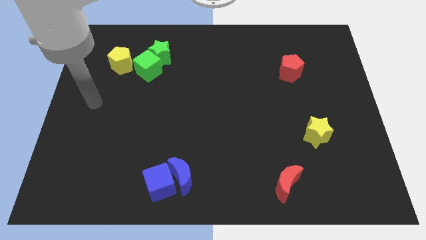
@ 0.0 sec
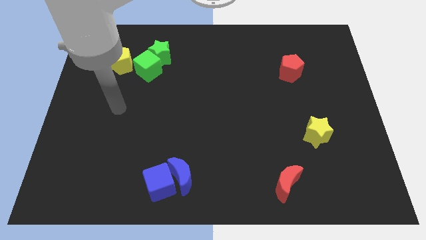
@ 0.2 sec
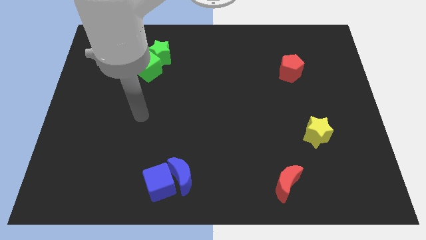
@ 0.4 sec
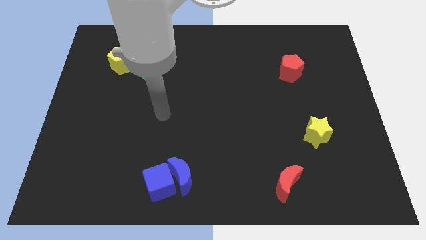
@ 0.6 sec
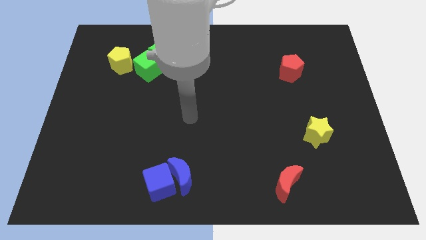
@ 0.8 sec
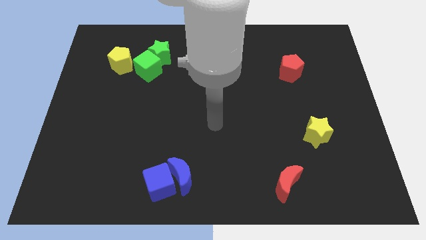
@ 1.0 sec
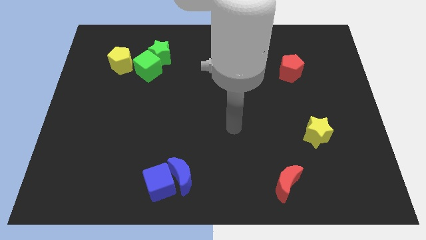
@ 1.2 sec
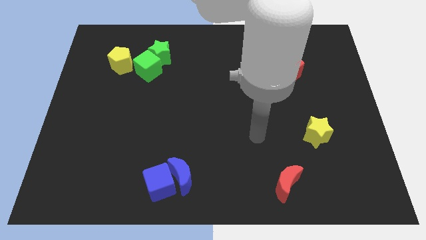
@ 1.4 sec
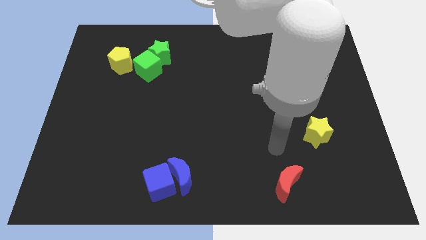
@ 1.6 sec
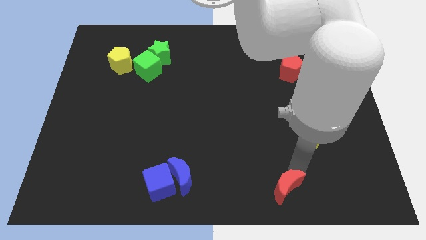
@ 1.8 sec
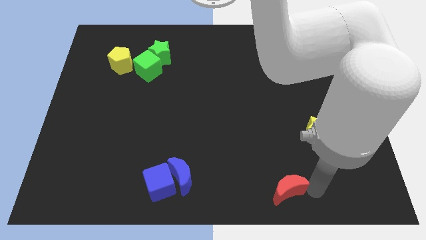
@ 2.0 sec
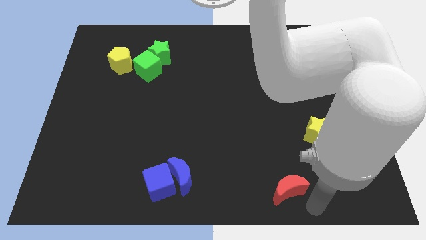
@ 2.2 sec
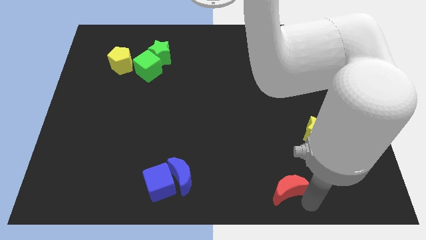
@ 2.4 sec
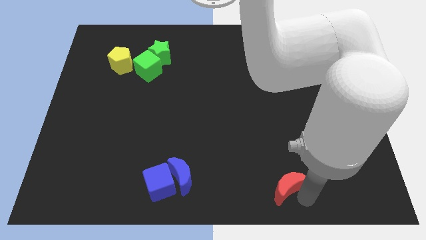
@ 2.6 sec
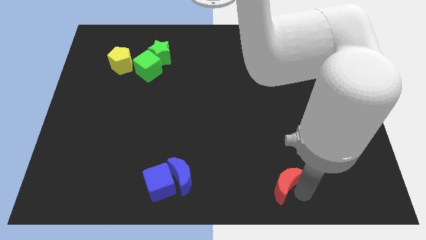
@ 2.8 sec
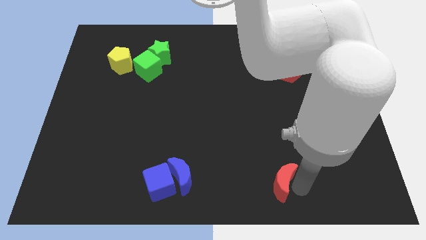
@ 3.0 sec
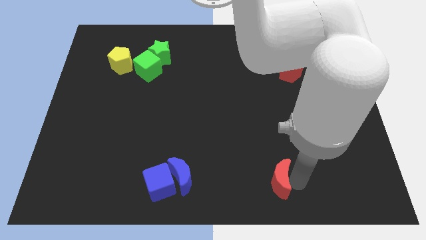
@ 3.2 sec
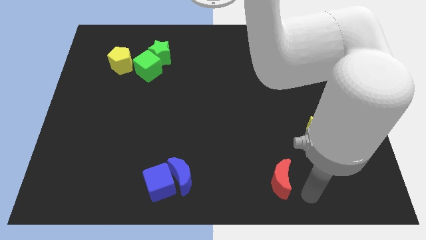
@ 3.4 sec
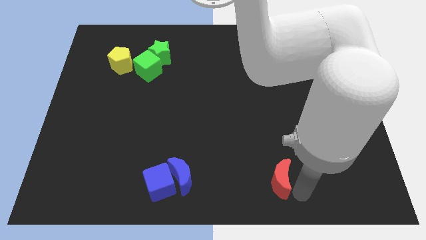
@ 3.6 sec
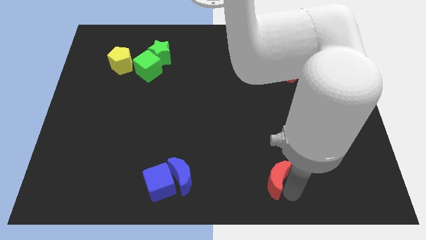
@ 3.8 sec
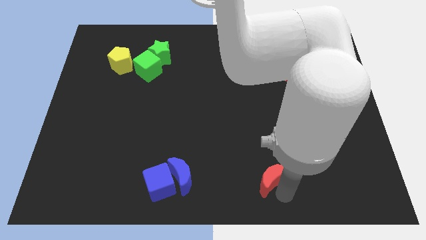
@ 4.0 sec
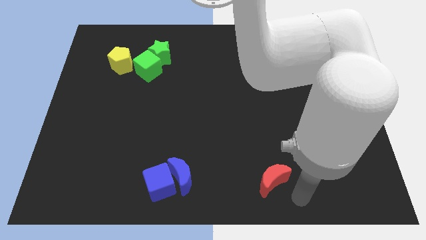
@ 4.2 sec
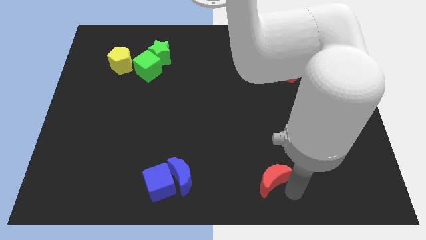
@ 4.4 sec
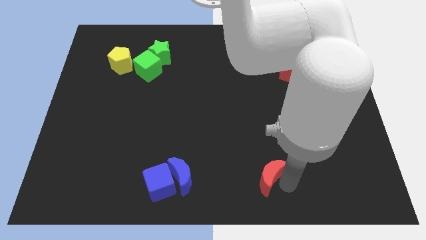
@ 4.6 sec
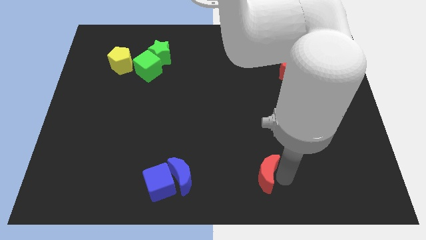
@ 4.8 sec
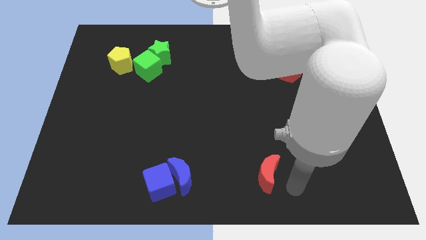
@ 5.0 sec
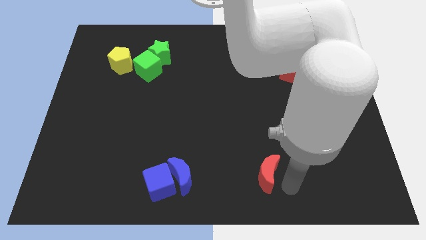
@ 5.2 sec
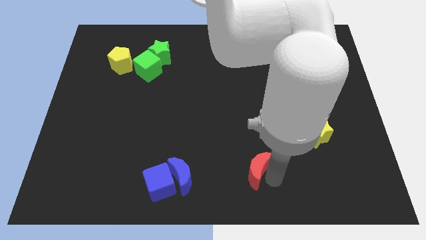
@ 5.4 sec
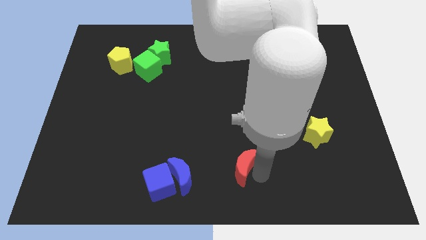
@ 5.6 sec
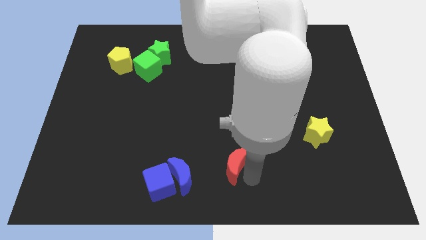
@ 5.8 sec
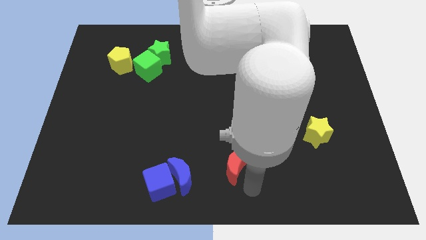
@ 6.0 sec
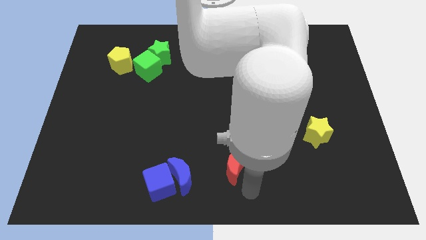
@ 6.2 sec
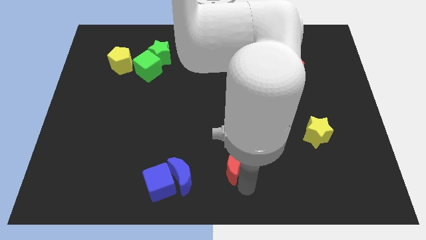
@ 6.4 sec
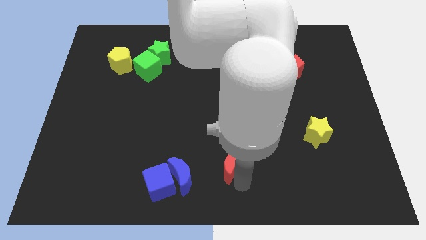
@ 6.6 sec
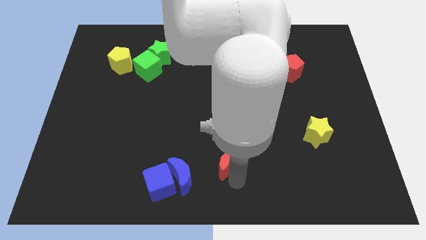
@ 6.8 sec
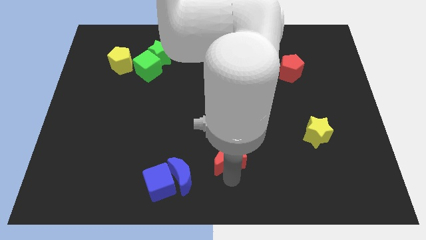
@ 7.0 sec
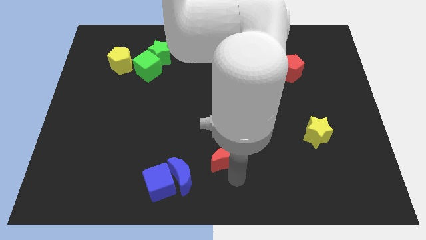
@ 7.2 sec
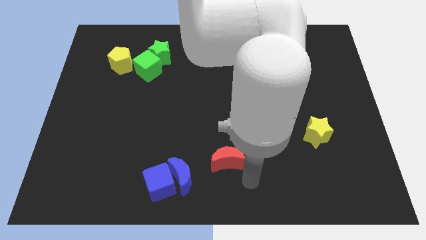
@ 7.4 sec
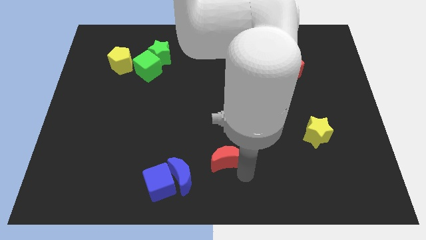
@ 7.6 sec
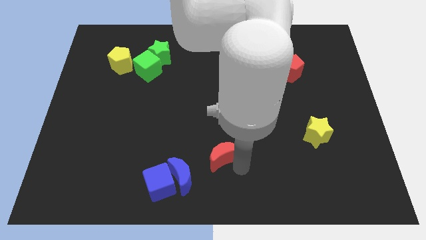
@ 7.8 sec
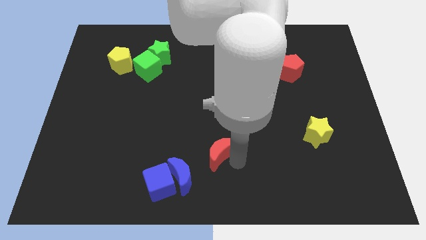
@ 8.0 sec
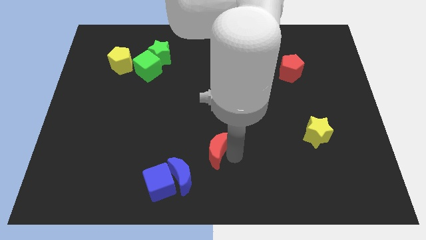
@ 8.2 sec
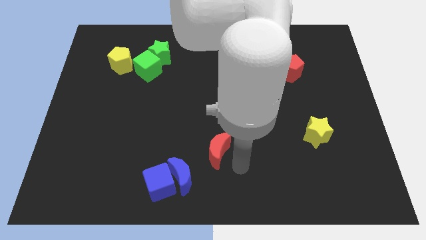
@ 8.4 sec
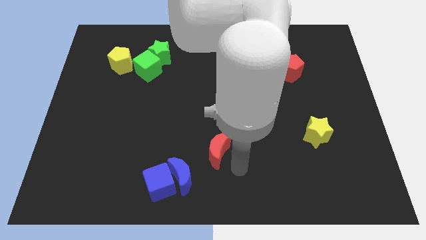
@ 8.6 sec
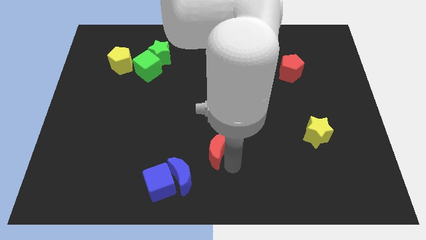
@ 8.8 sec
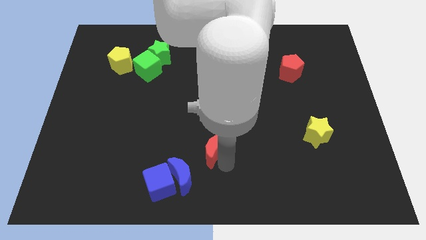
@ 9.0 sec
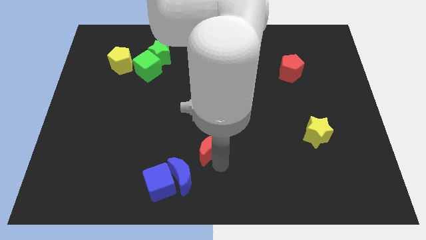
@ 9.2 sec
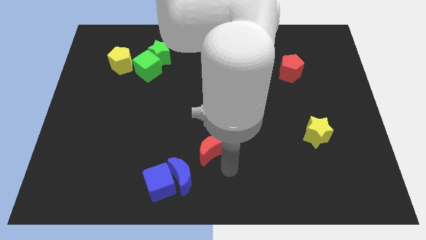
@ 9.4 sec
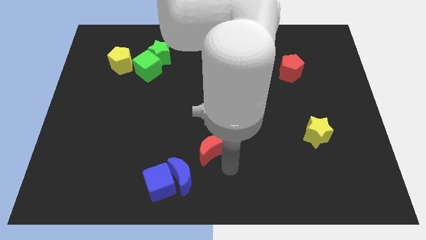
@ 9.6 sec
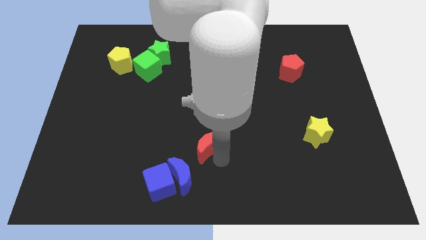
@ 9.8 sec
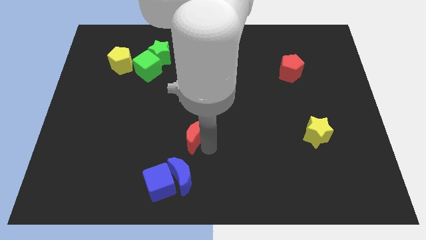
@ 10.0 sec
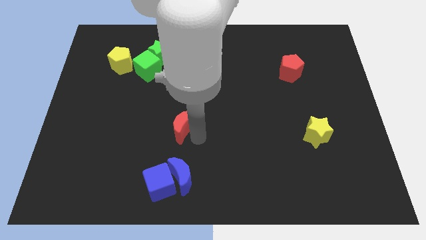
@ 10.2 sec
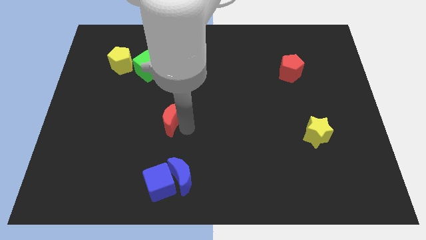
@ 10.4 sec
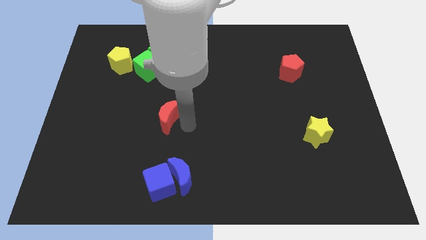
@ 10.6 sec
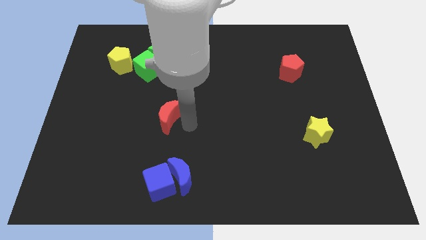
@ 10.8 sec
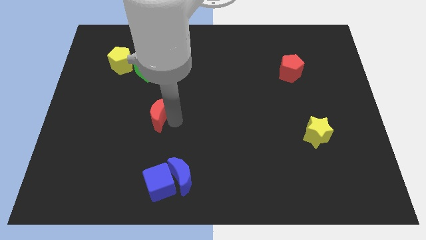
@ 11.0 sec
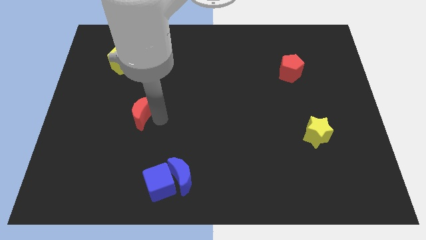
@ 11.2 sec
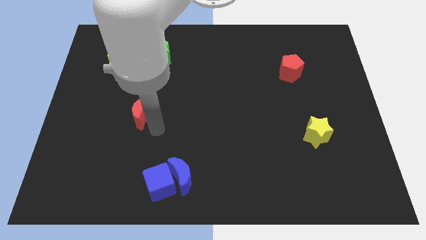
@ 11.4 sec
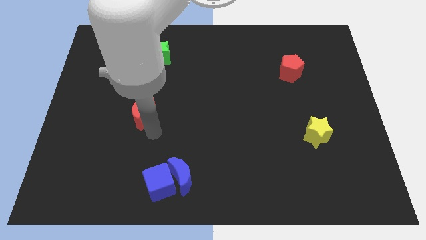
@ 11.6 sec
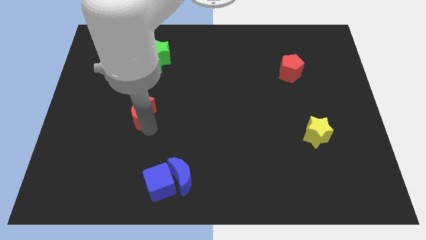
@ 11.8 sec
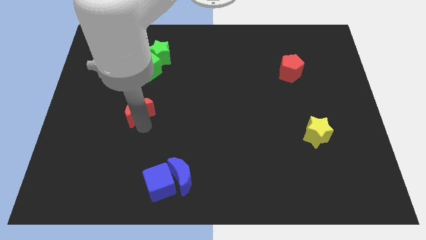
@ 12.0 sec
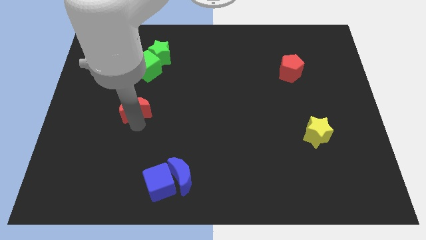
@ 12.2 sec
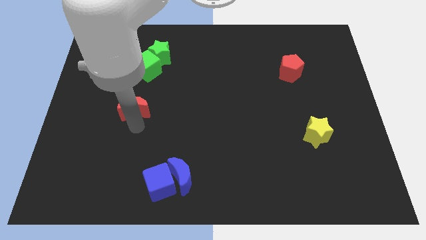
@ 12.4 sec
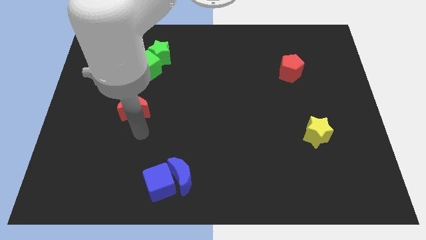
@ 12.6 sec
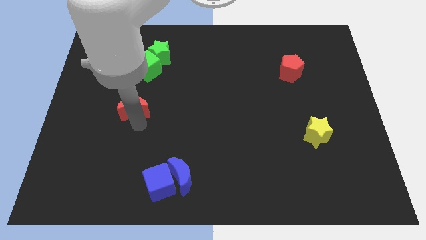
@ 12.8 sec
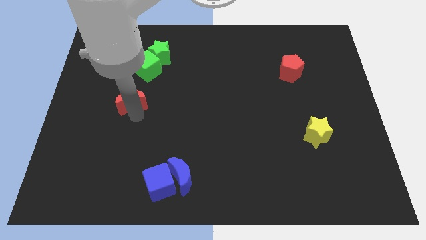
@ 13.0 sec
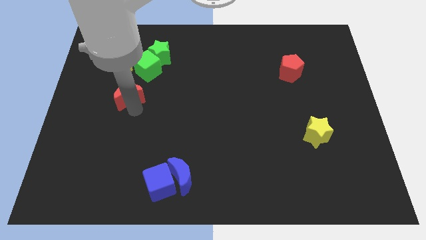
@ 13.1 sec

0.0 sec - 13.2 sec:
put the red moon to the bottom left of the green cube

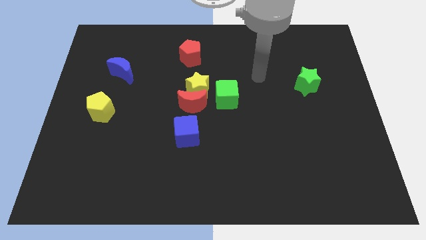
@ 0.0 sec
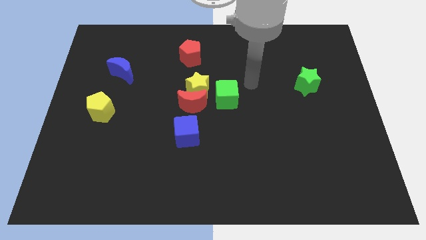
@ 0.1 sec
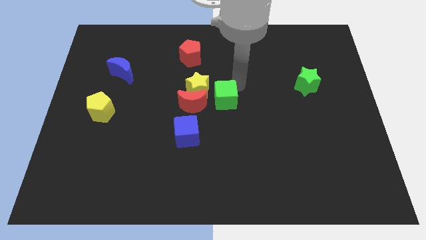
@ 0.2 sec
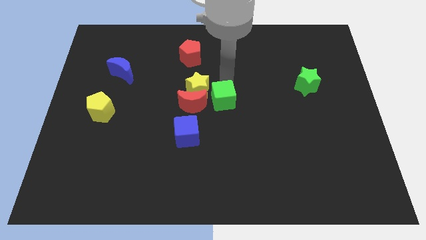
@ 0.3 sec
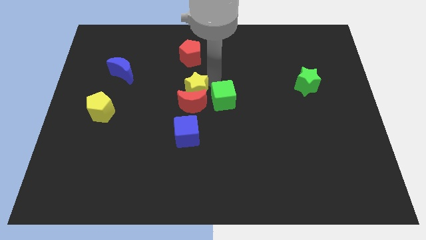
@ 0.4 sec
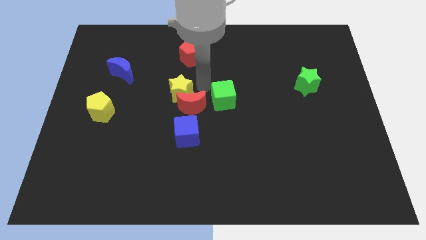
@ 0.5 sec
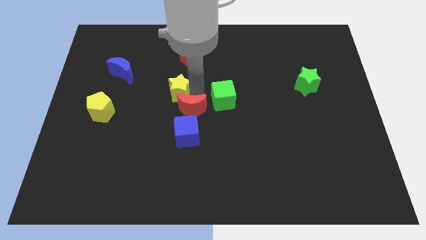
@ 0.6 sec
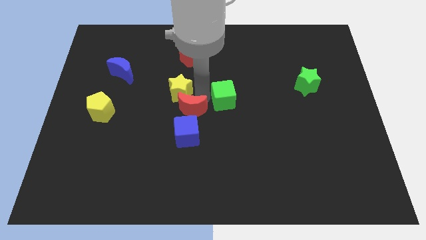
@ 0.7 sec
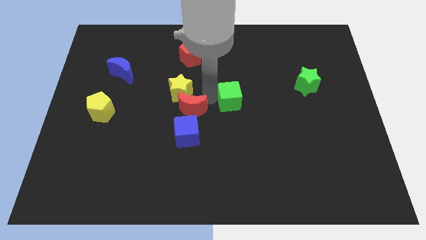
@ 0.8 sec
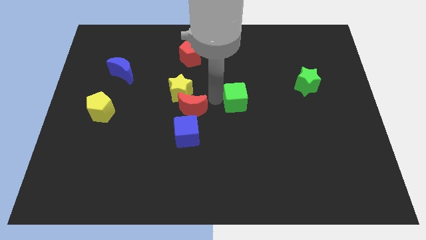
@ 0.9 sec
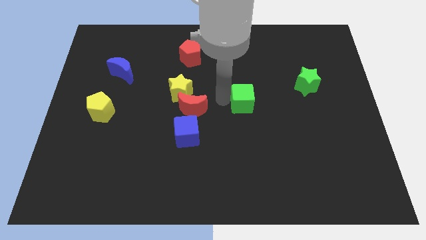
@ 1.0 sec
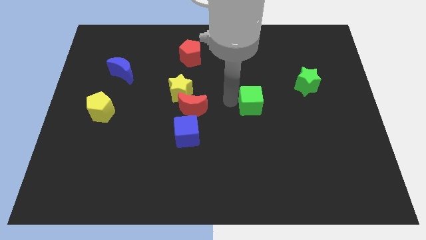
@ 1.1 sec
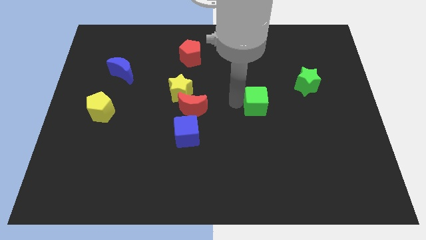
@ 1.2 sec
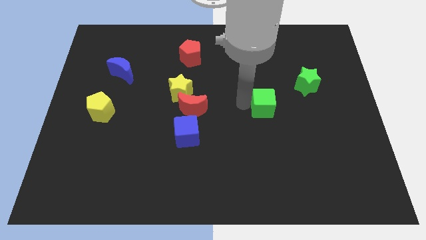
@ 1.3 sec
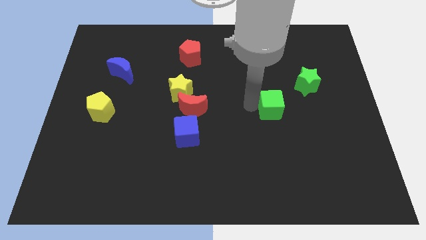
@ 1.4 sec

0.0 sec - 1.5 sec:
put the green cube diagonally down and to the left of the green star
